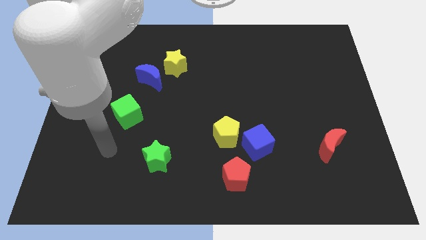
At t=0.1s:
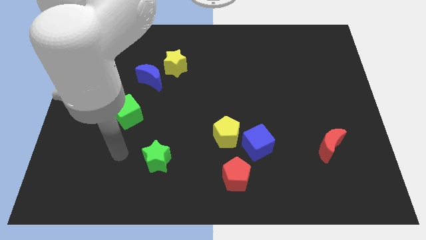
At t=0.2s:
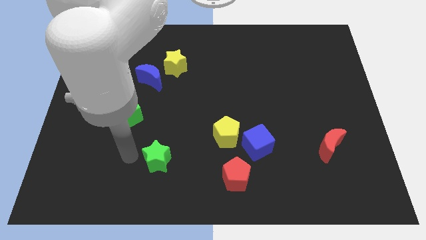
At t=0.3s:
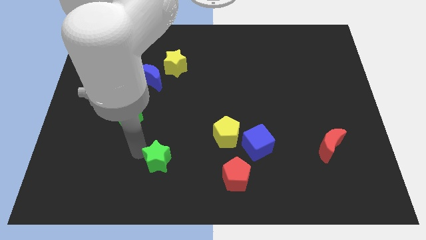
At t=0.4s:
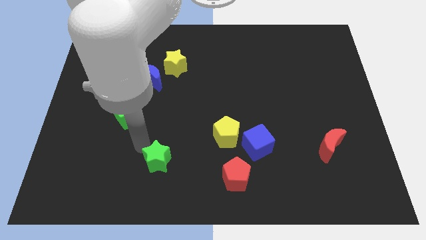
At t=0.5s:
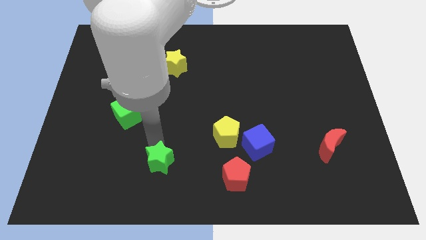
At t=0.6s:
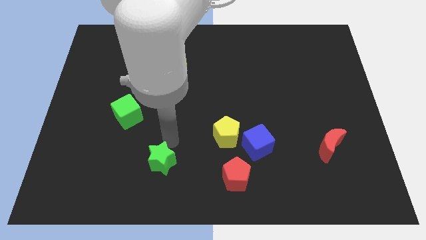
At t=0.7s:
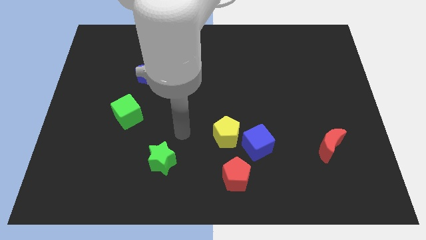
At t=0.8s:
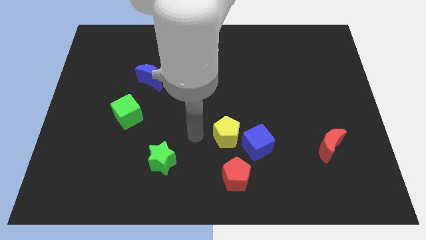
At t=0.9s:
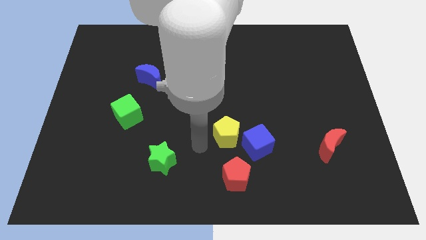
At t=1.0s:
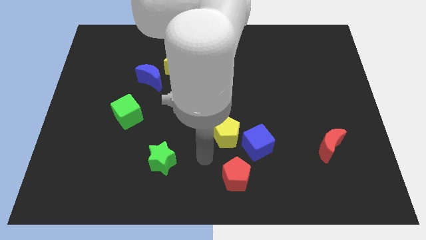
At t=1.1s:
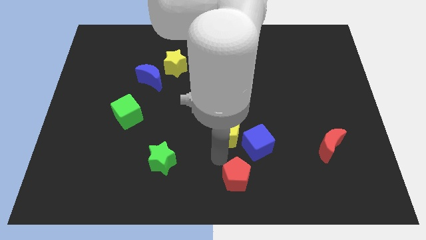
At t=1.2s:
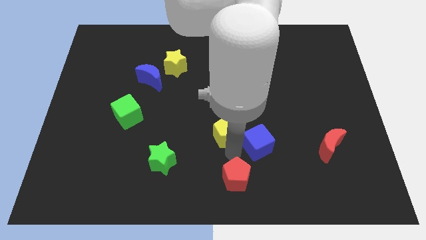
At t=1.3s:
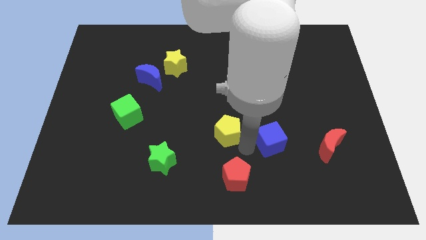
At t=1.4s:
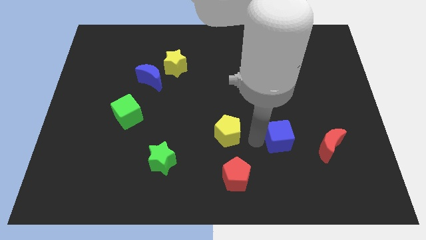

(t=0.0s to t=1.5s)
move the yellow pentagon away from the blue cube

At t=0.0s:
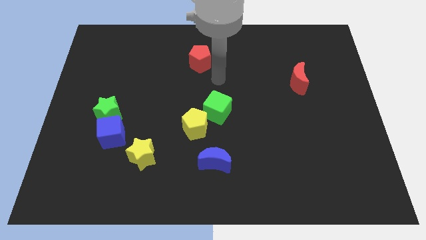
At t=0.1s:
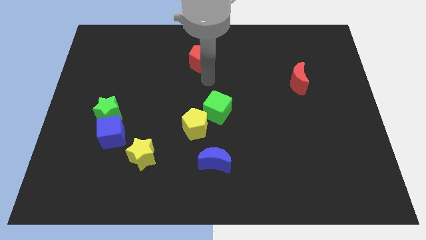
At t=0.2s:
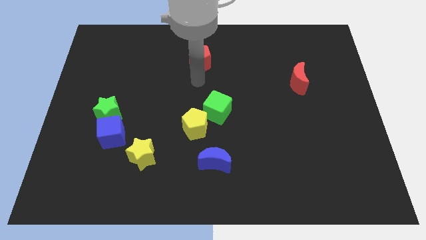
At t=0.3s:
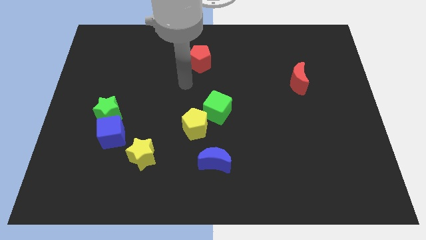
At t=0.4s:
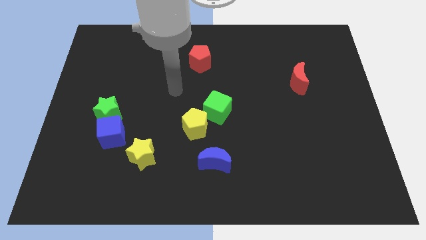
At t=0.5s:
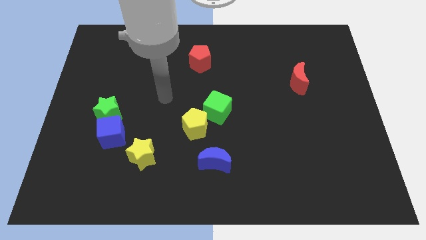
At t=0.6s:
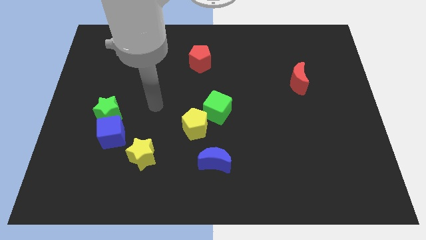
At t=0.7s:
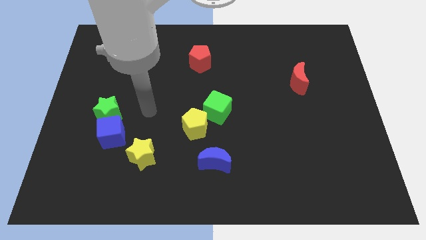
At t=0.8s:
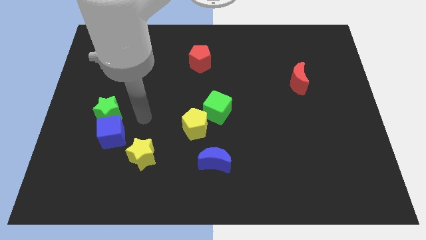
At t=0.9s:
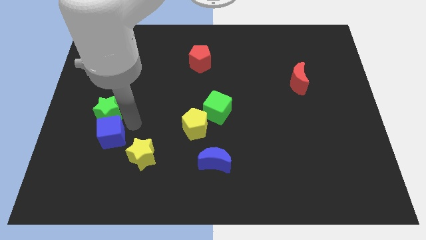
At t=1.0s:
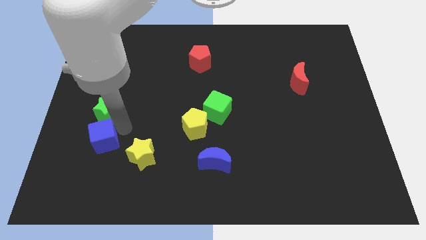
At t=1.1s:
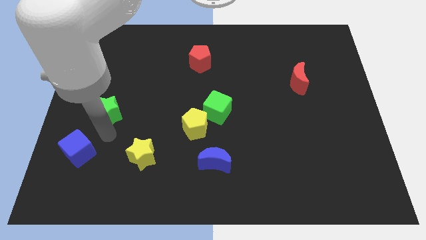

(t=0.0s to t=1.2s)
separate the green star from the blue cube

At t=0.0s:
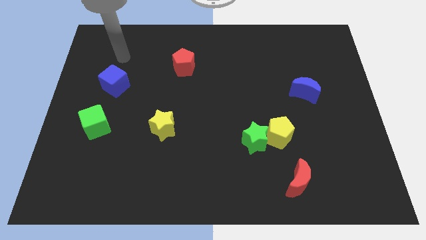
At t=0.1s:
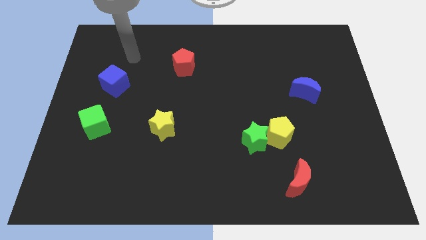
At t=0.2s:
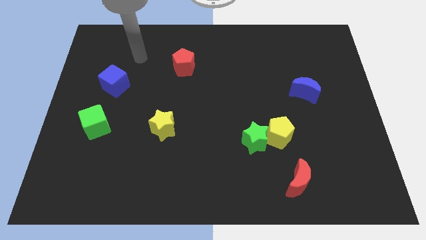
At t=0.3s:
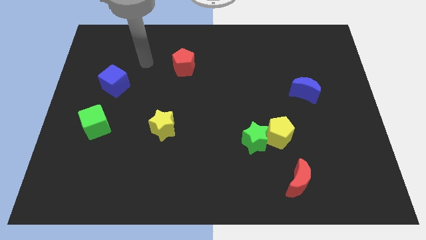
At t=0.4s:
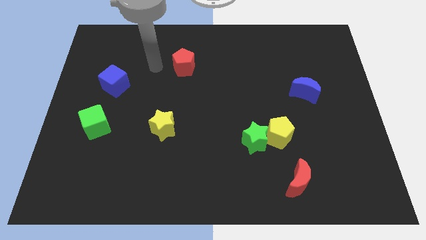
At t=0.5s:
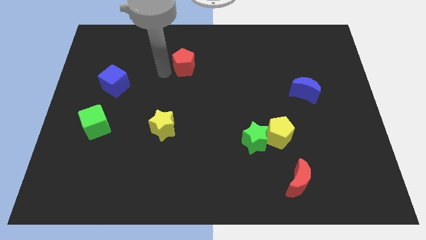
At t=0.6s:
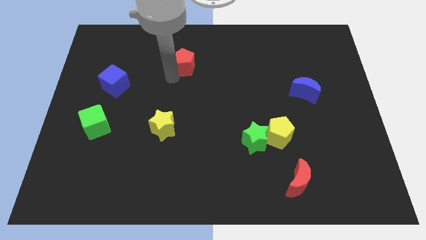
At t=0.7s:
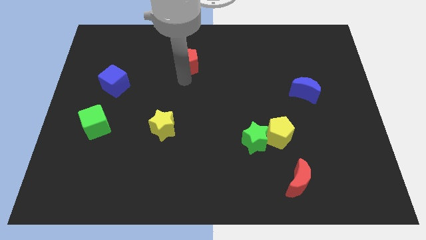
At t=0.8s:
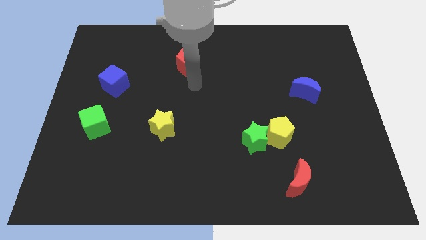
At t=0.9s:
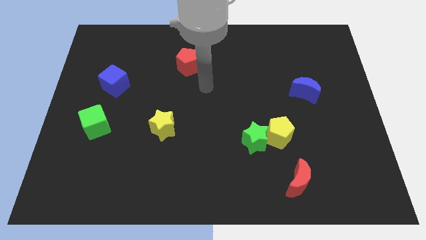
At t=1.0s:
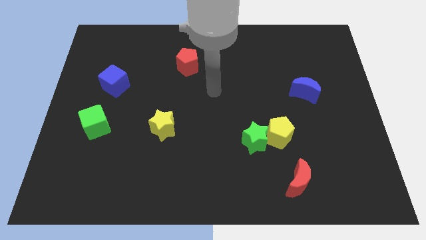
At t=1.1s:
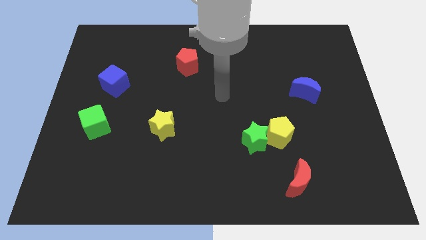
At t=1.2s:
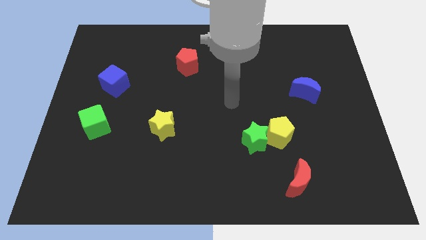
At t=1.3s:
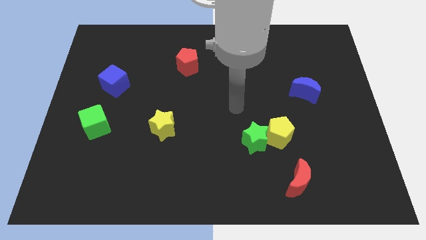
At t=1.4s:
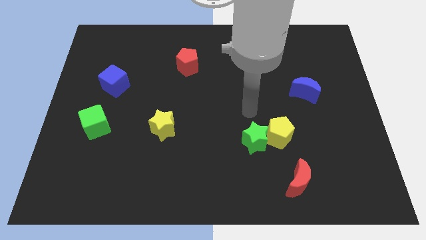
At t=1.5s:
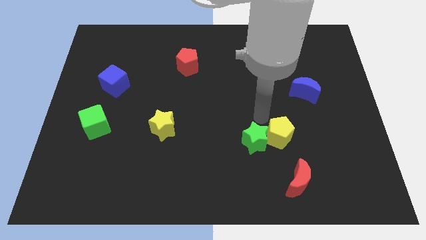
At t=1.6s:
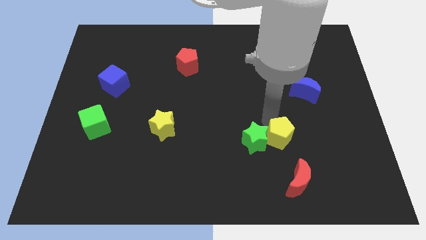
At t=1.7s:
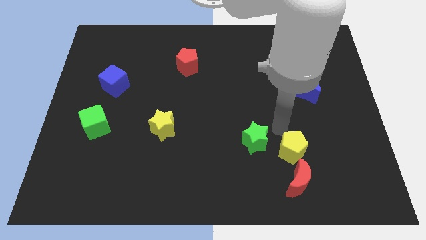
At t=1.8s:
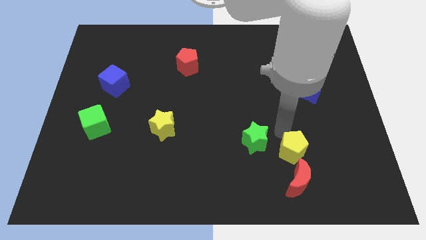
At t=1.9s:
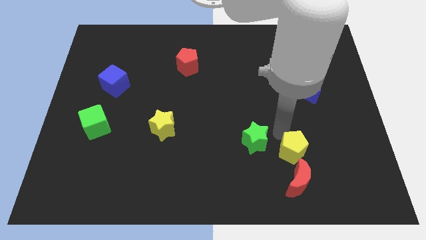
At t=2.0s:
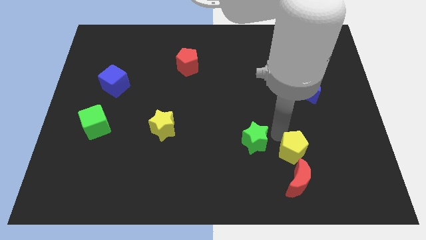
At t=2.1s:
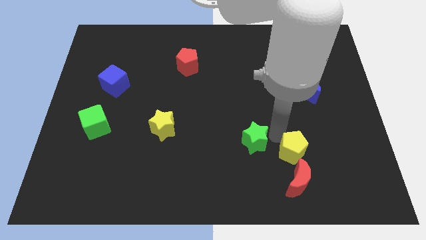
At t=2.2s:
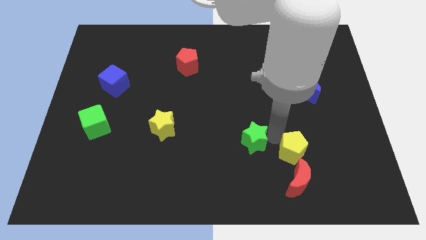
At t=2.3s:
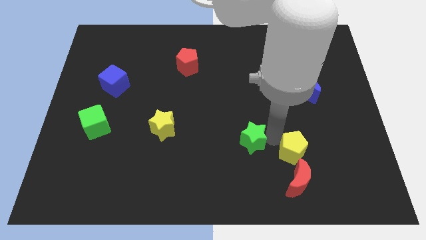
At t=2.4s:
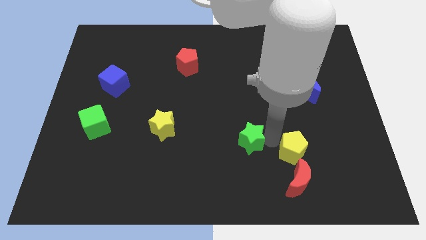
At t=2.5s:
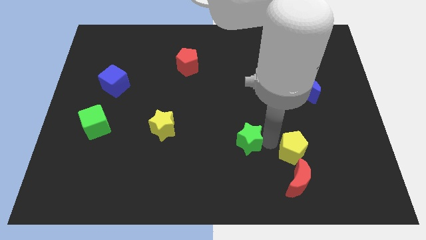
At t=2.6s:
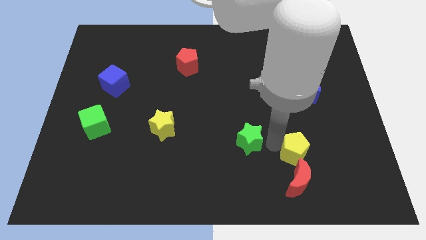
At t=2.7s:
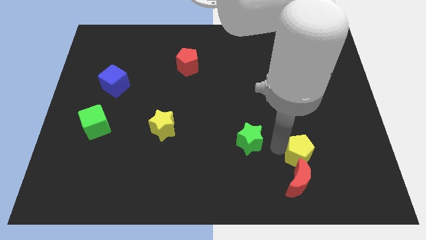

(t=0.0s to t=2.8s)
separate the green star from the yellow pentagon

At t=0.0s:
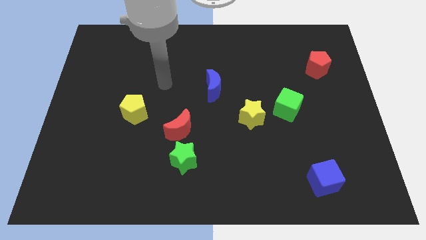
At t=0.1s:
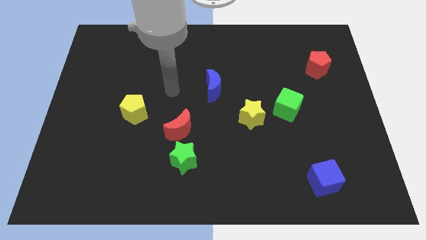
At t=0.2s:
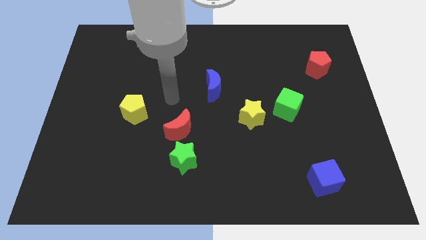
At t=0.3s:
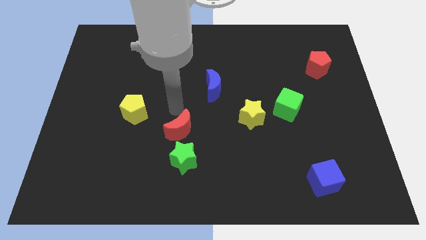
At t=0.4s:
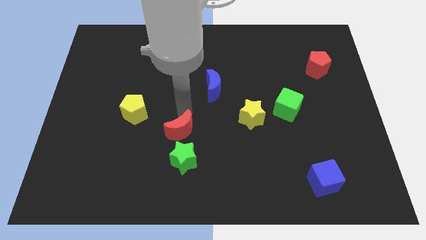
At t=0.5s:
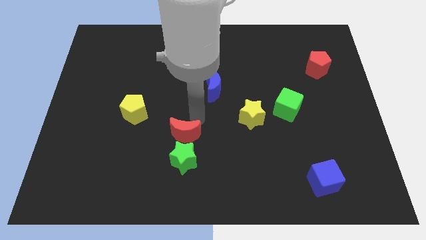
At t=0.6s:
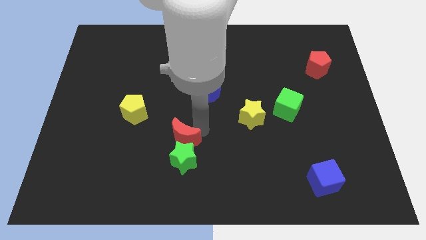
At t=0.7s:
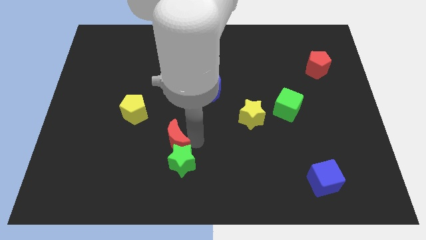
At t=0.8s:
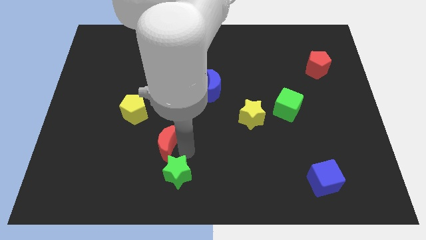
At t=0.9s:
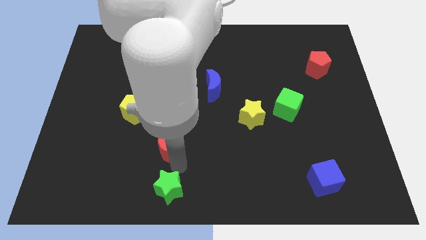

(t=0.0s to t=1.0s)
pull the red moon apart from the green star

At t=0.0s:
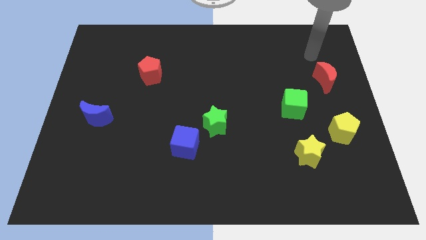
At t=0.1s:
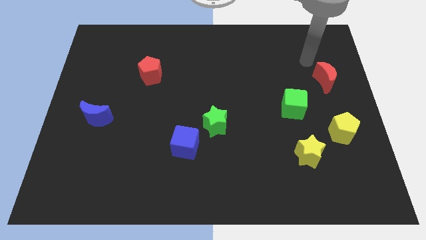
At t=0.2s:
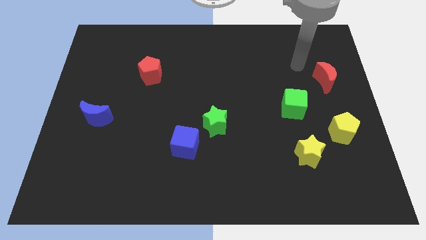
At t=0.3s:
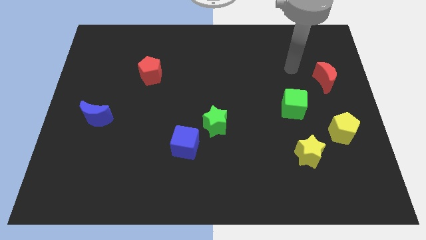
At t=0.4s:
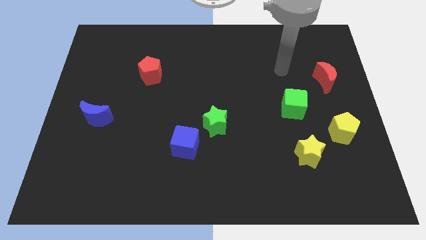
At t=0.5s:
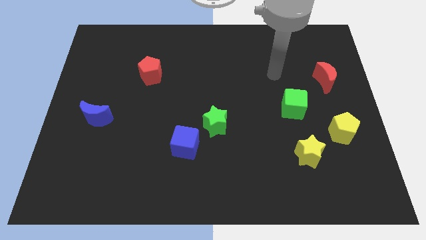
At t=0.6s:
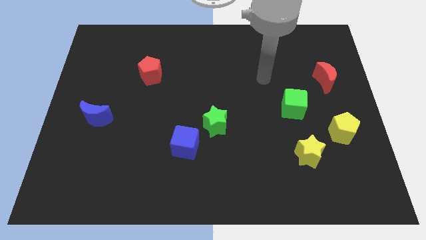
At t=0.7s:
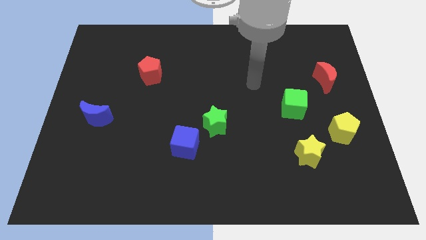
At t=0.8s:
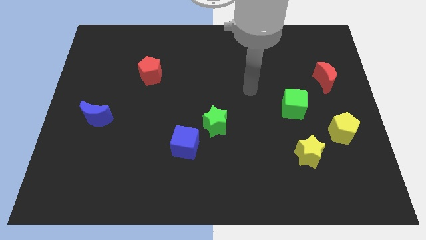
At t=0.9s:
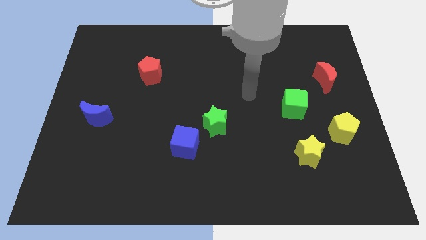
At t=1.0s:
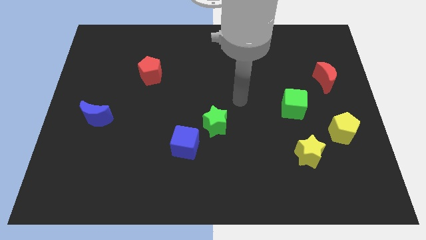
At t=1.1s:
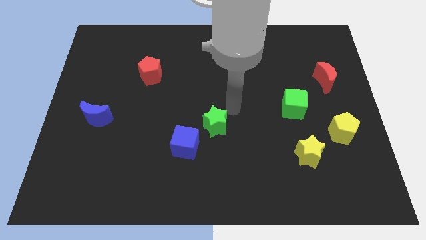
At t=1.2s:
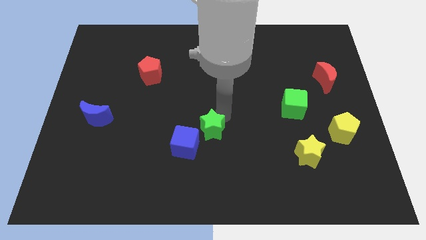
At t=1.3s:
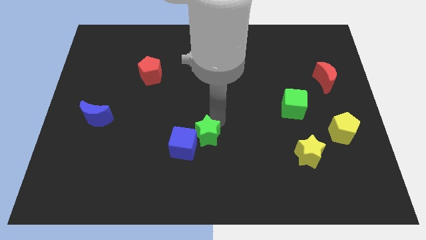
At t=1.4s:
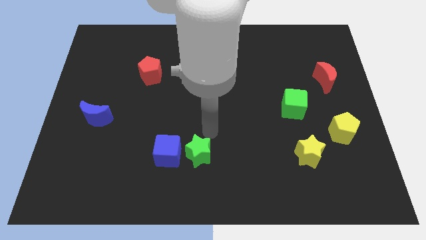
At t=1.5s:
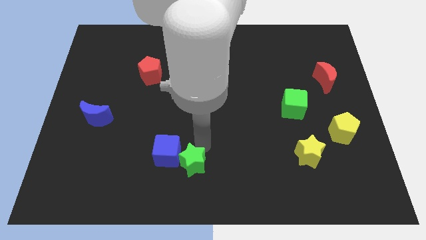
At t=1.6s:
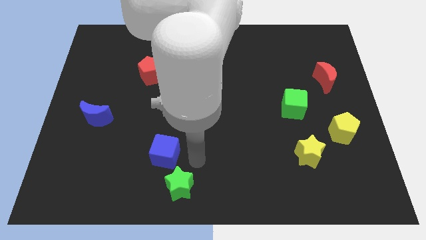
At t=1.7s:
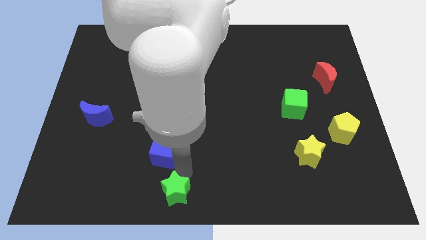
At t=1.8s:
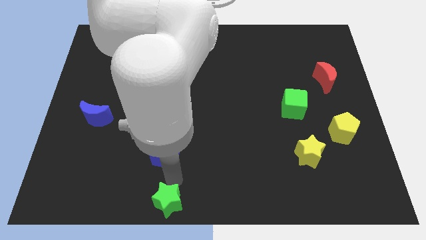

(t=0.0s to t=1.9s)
move the blue cube away from the green star

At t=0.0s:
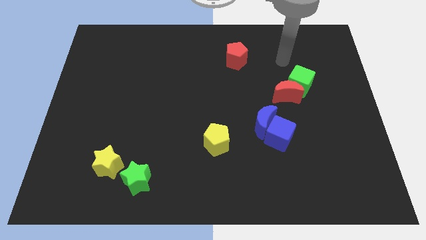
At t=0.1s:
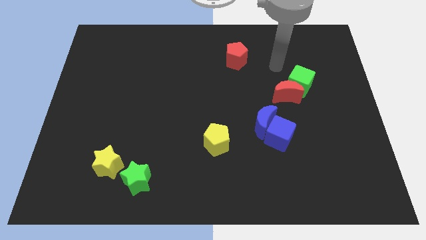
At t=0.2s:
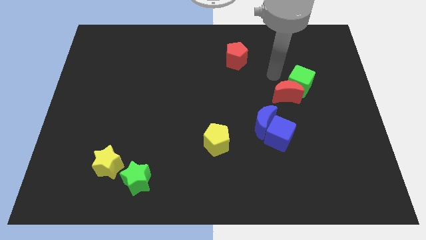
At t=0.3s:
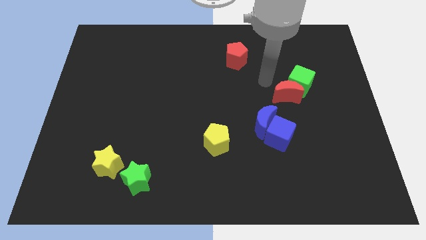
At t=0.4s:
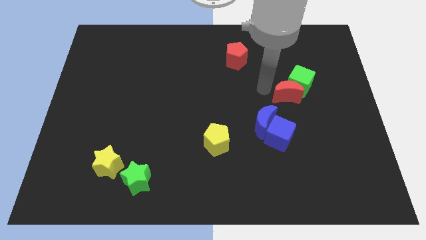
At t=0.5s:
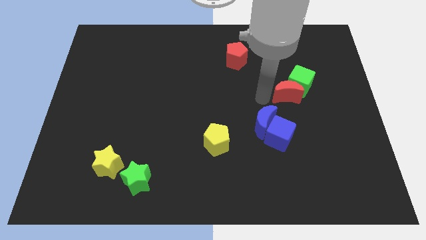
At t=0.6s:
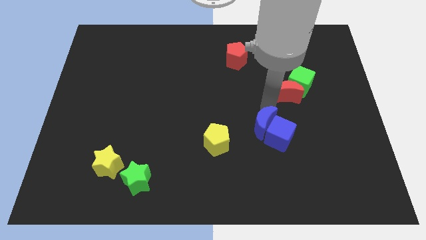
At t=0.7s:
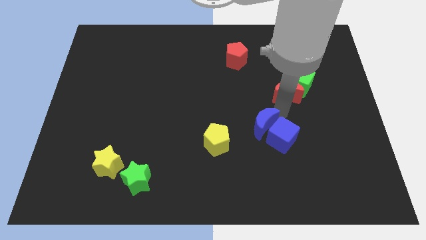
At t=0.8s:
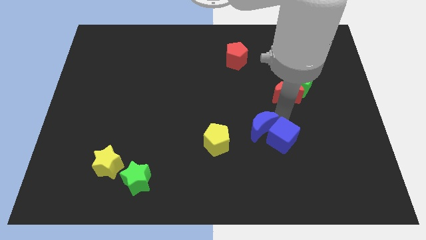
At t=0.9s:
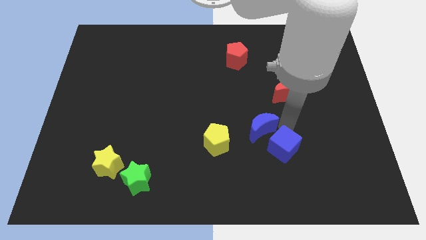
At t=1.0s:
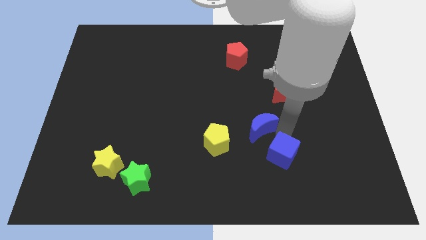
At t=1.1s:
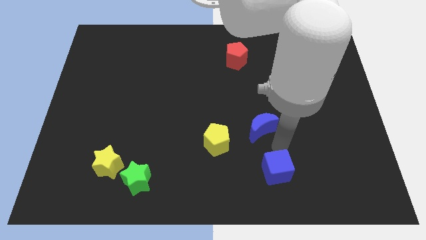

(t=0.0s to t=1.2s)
separate the blue moon from the blue cube
